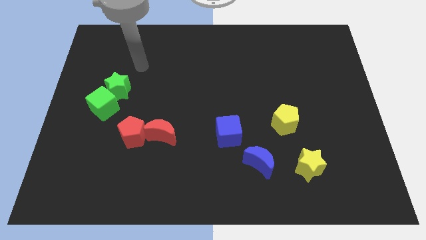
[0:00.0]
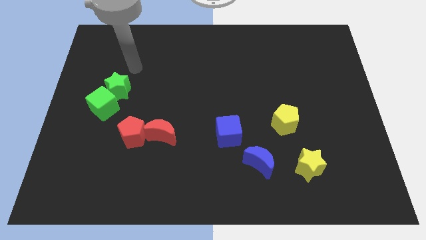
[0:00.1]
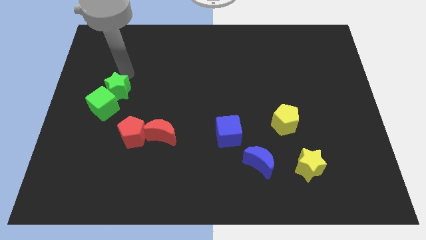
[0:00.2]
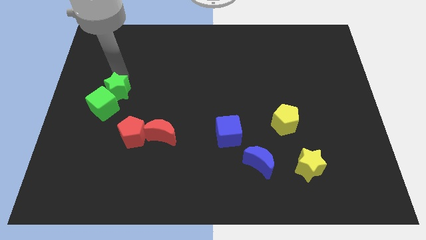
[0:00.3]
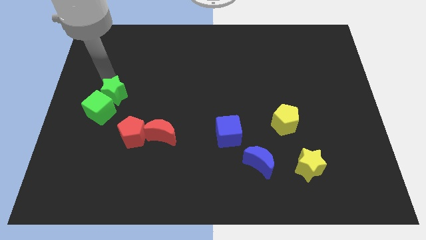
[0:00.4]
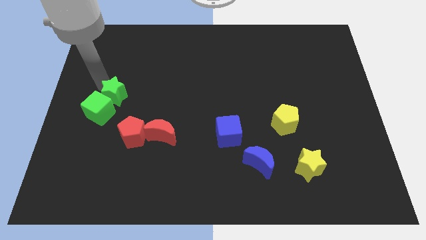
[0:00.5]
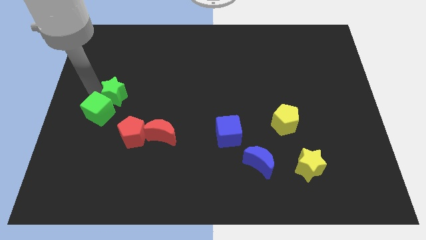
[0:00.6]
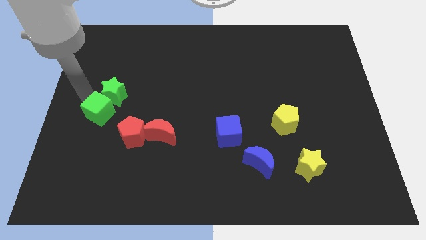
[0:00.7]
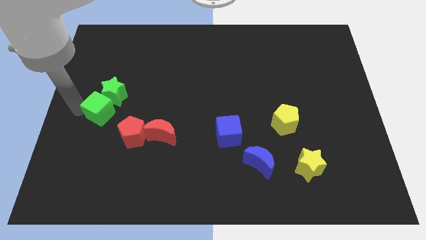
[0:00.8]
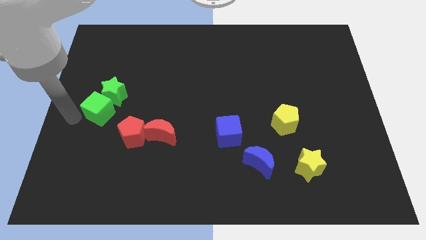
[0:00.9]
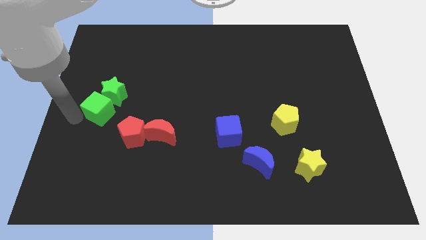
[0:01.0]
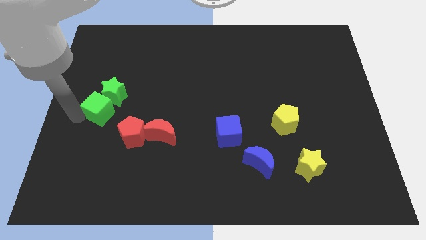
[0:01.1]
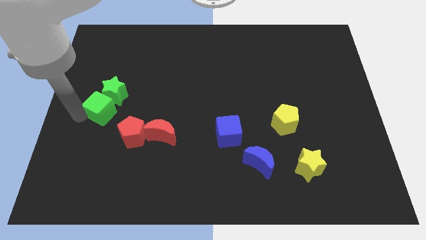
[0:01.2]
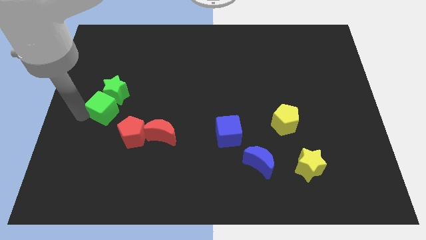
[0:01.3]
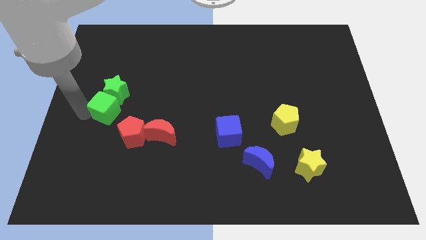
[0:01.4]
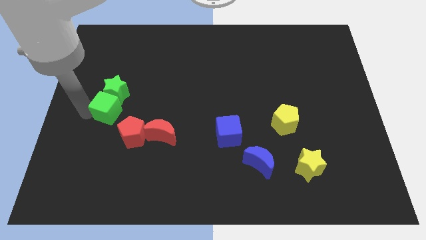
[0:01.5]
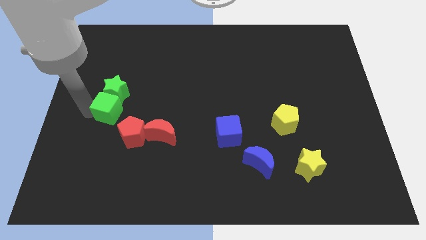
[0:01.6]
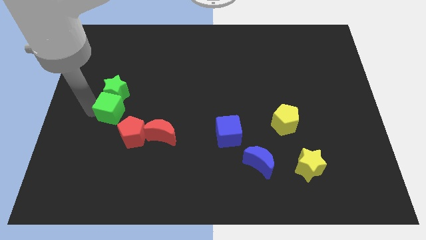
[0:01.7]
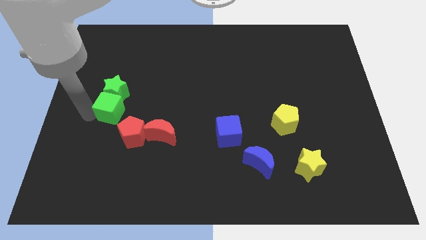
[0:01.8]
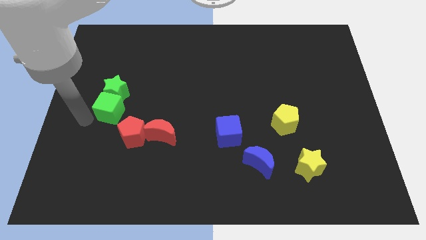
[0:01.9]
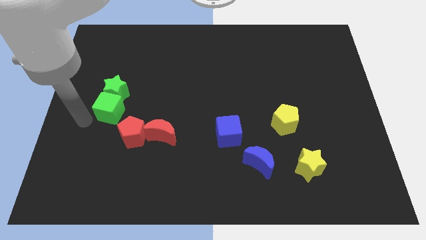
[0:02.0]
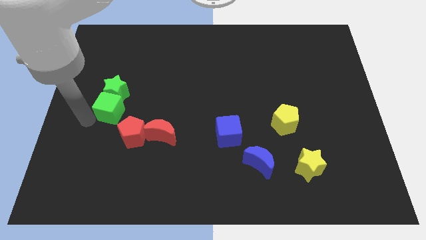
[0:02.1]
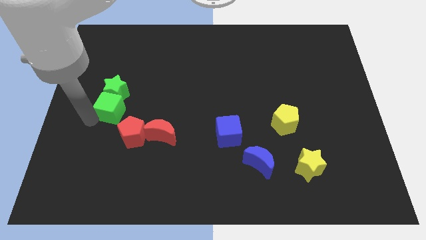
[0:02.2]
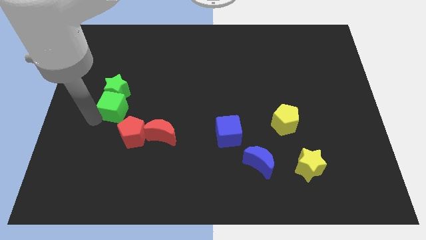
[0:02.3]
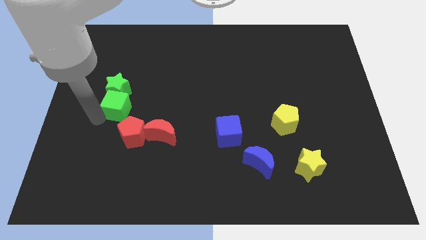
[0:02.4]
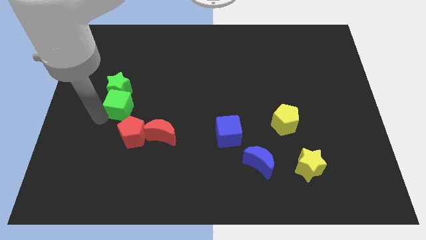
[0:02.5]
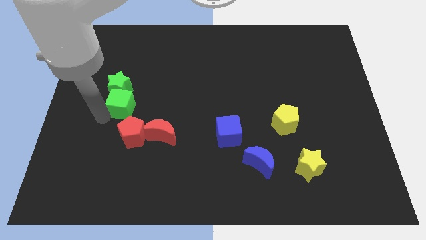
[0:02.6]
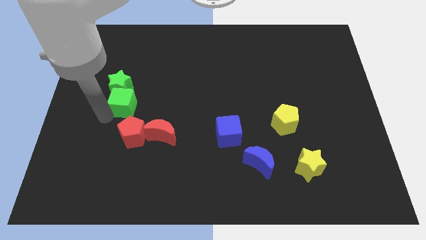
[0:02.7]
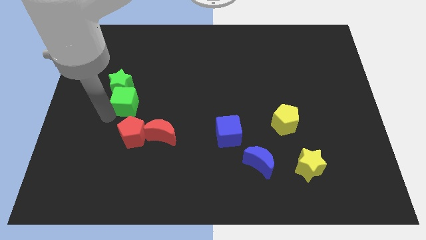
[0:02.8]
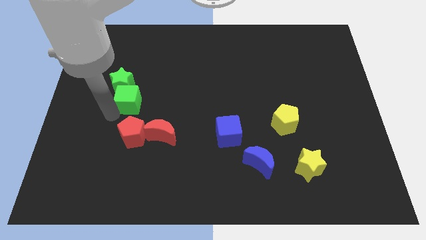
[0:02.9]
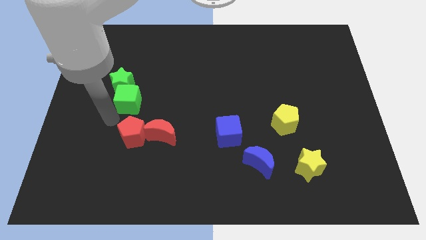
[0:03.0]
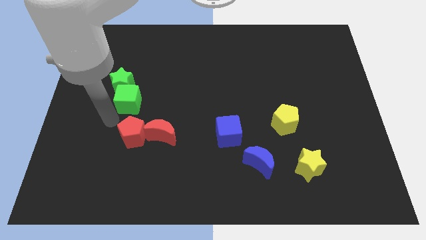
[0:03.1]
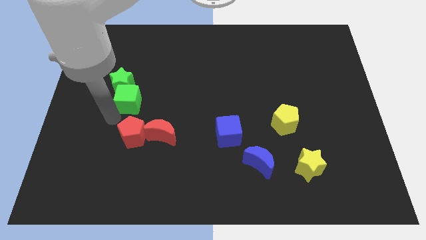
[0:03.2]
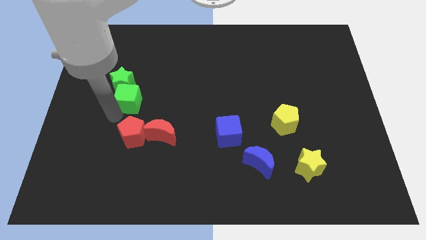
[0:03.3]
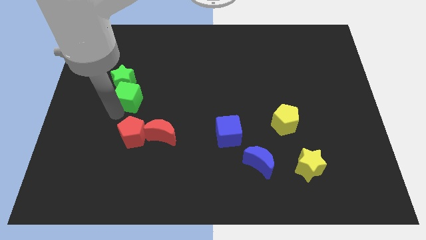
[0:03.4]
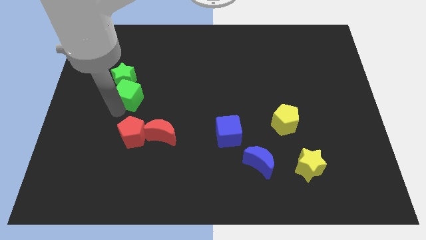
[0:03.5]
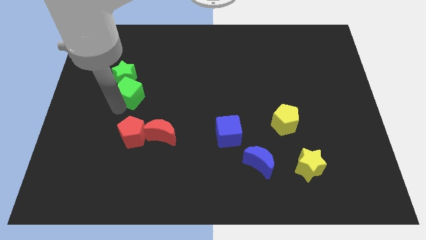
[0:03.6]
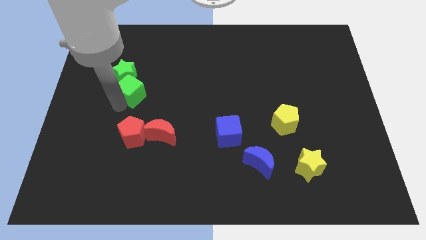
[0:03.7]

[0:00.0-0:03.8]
slide the green cube a bit upwards and then right

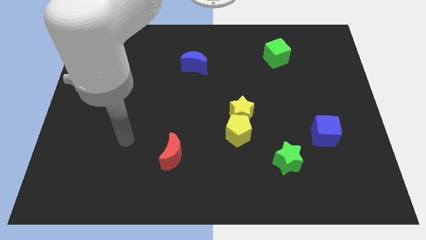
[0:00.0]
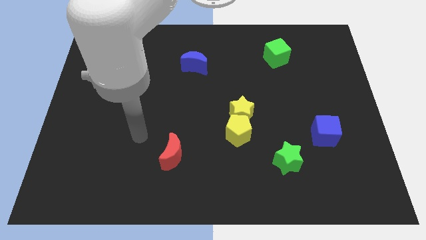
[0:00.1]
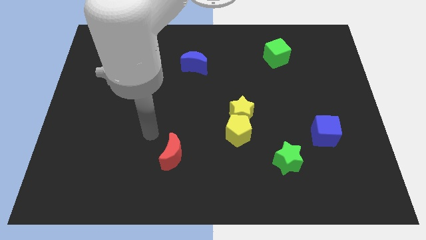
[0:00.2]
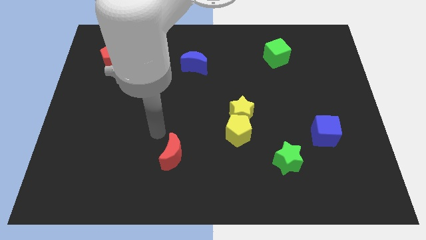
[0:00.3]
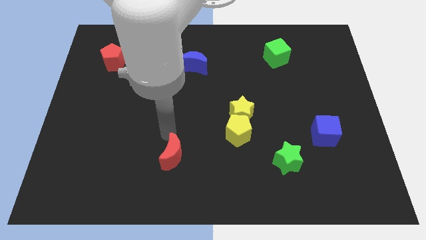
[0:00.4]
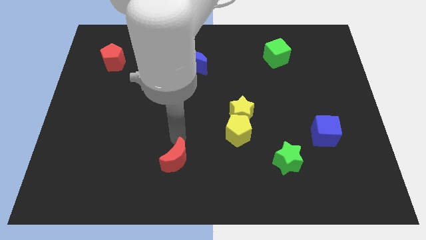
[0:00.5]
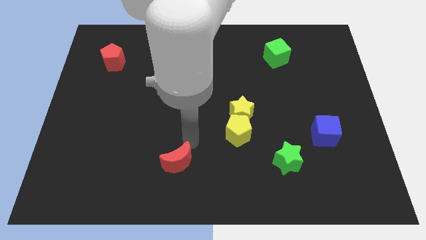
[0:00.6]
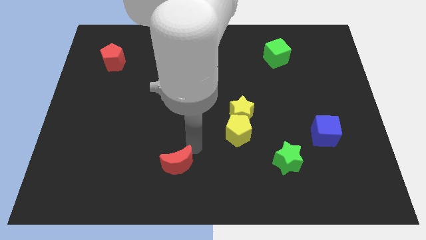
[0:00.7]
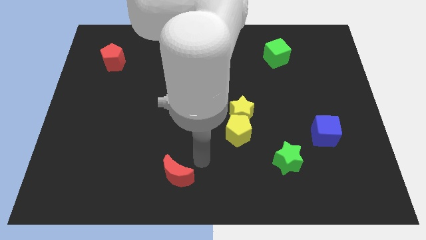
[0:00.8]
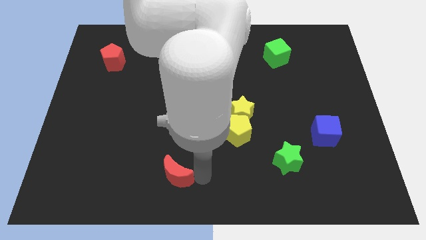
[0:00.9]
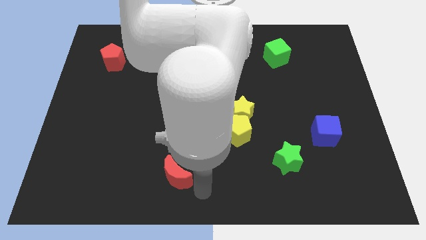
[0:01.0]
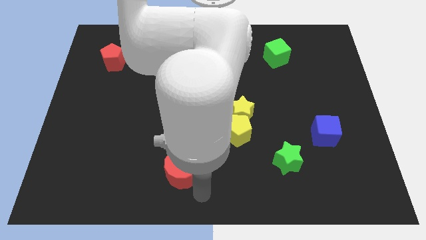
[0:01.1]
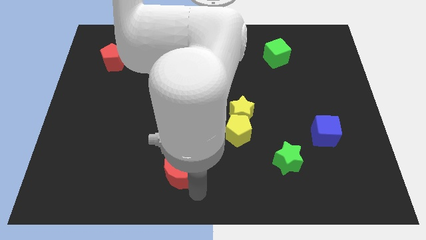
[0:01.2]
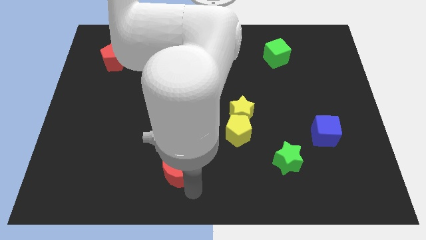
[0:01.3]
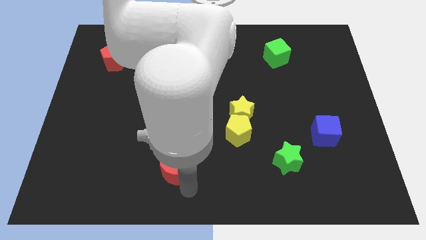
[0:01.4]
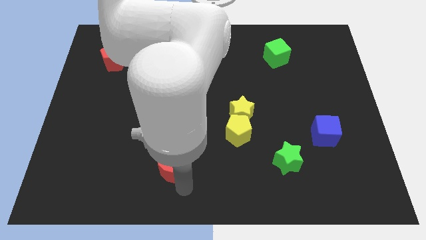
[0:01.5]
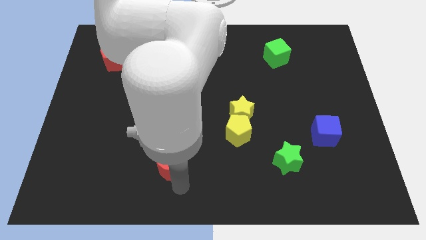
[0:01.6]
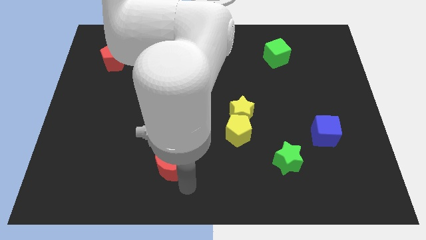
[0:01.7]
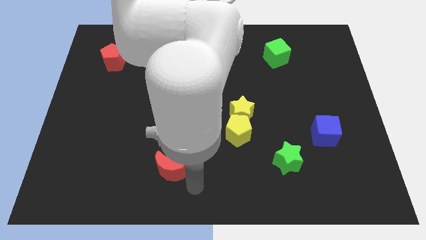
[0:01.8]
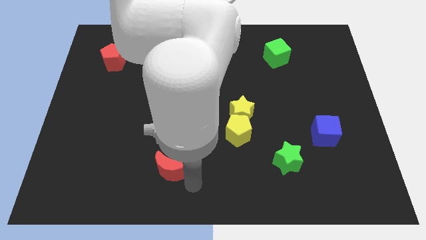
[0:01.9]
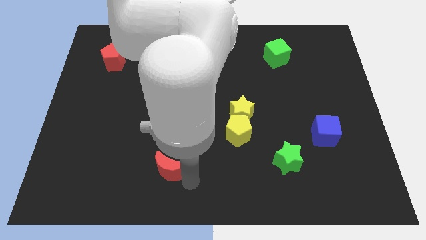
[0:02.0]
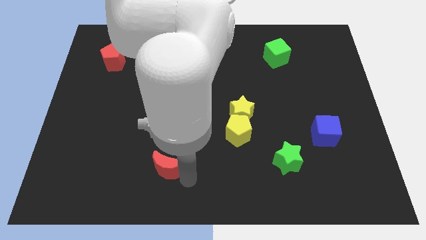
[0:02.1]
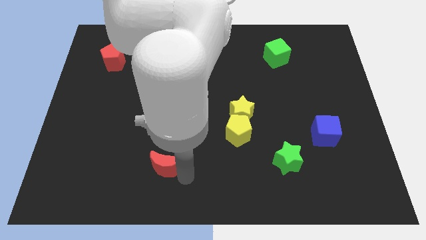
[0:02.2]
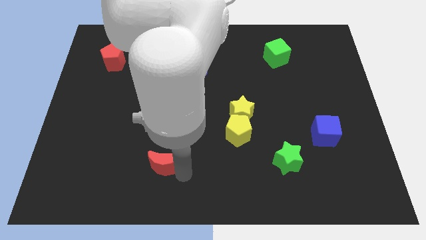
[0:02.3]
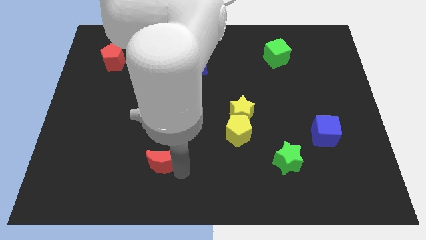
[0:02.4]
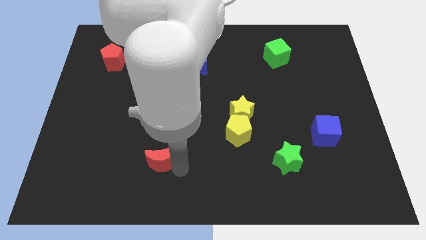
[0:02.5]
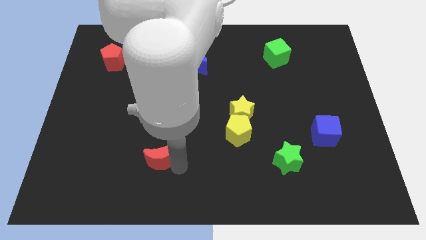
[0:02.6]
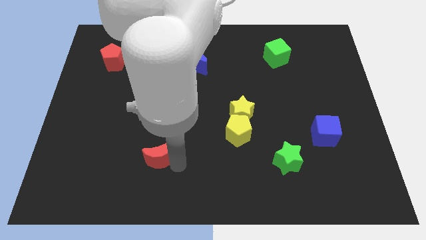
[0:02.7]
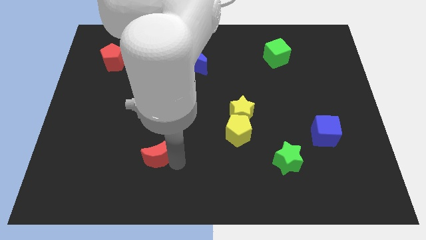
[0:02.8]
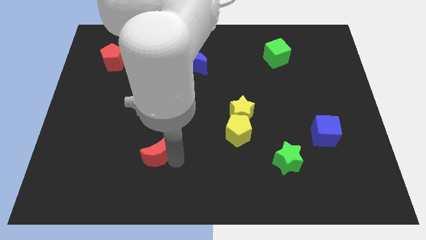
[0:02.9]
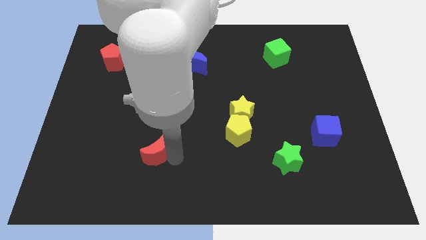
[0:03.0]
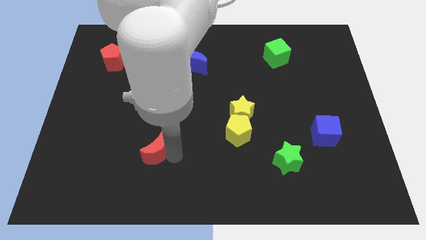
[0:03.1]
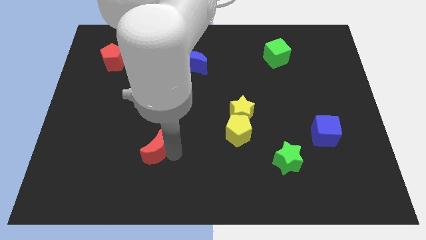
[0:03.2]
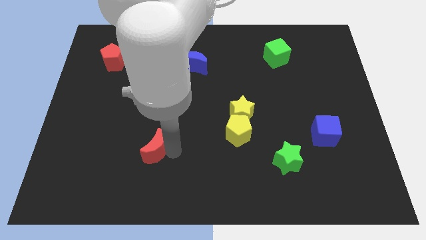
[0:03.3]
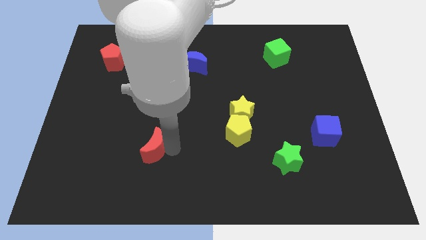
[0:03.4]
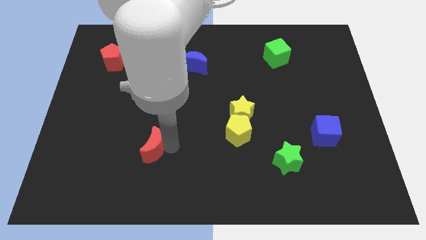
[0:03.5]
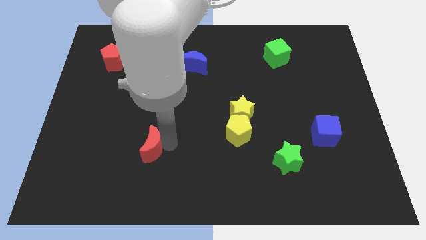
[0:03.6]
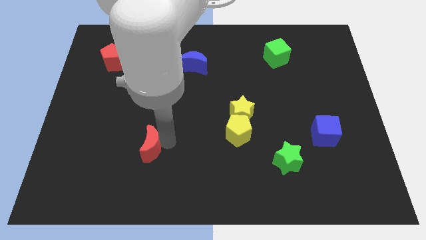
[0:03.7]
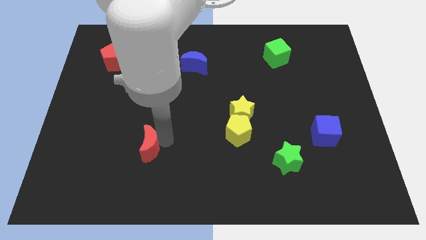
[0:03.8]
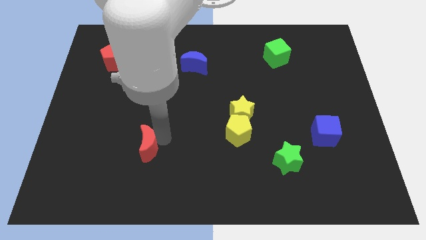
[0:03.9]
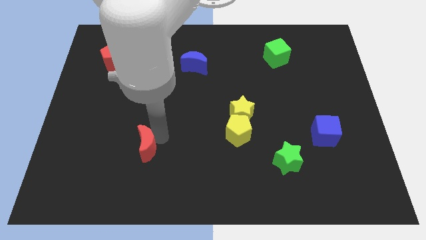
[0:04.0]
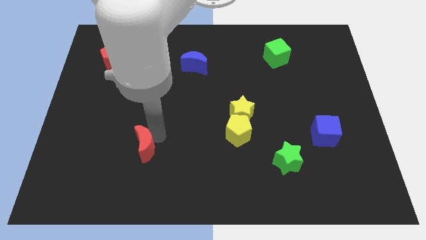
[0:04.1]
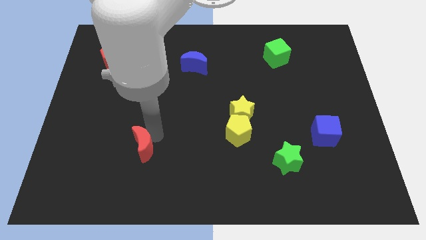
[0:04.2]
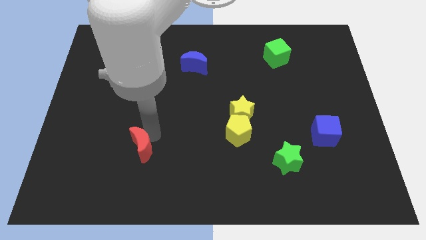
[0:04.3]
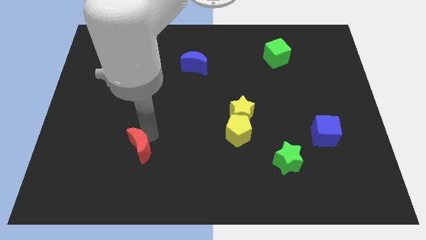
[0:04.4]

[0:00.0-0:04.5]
slide the red moon to the left a bit
